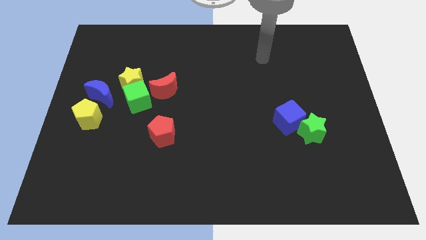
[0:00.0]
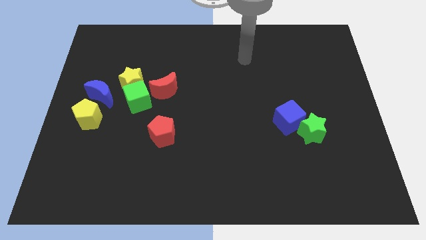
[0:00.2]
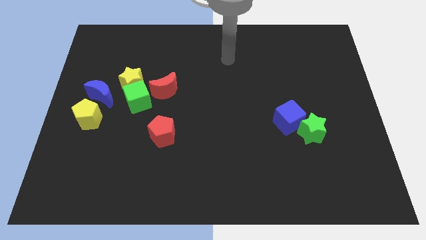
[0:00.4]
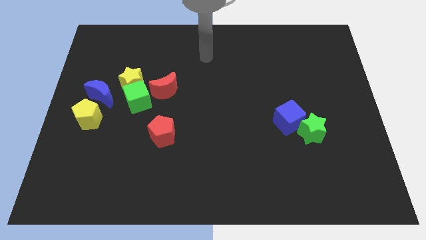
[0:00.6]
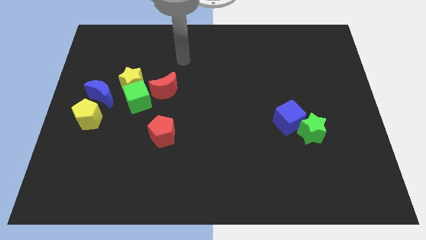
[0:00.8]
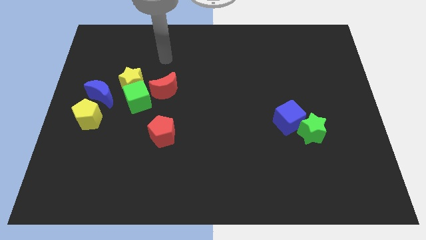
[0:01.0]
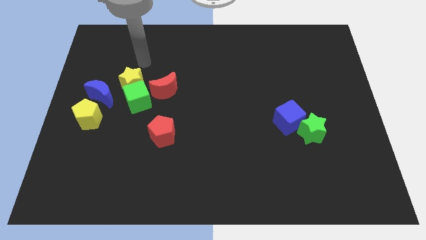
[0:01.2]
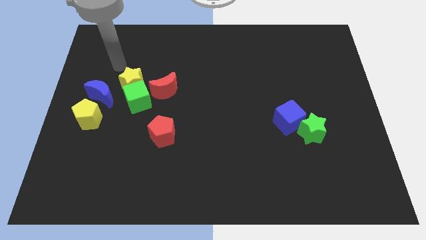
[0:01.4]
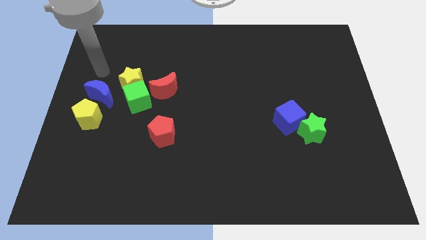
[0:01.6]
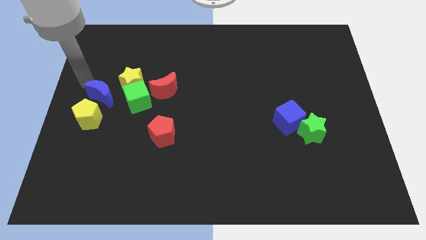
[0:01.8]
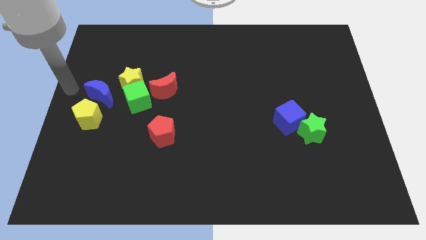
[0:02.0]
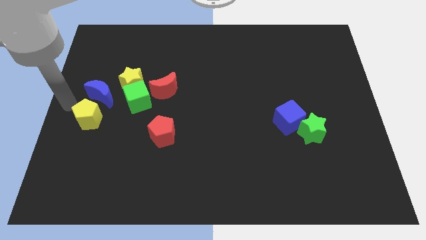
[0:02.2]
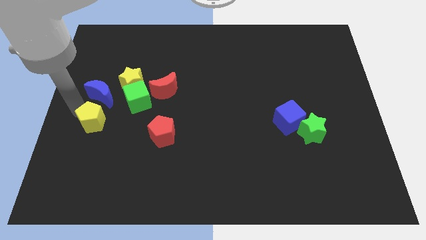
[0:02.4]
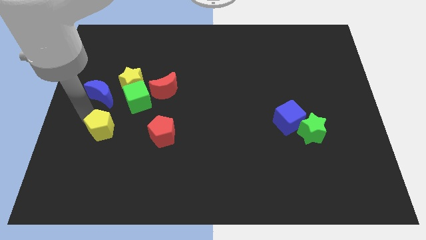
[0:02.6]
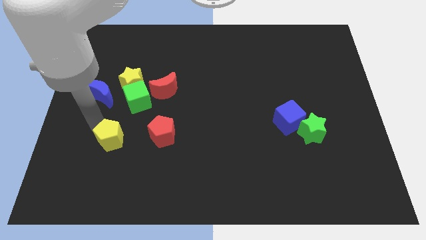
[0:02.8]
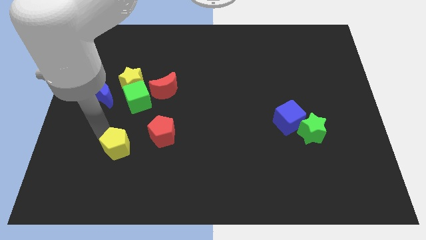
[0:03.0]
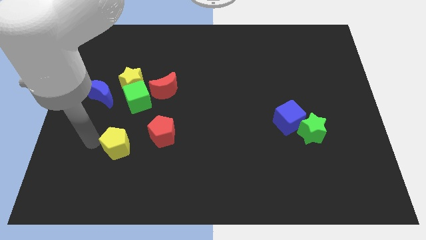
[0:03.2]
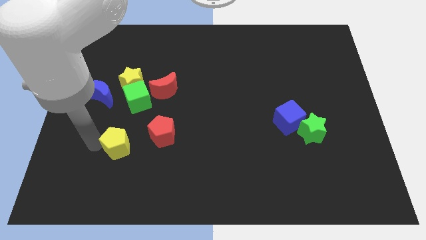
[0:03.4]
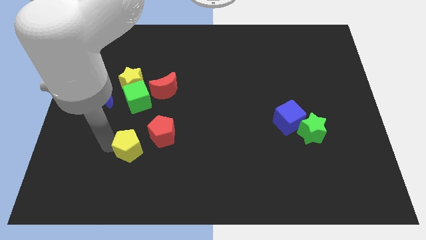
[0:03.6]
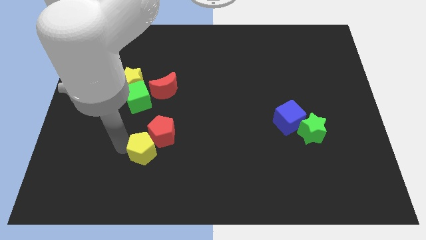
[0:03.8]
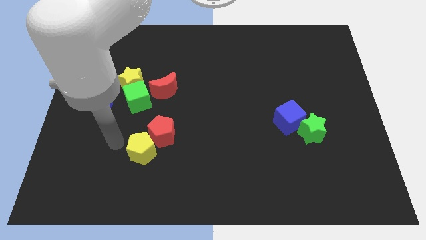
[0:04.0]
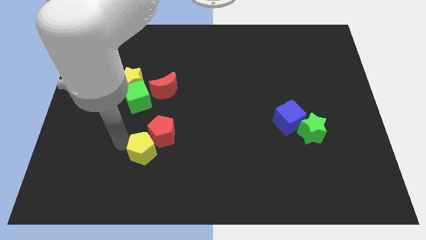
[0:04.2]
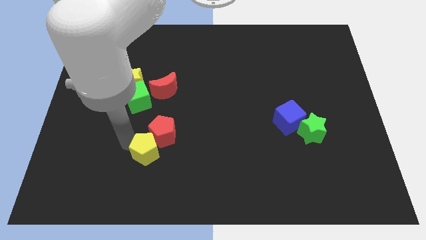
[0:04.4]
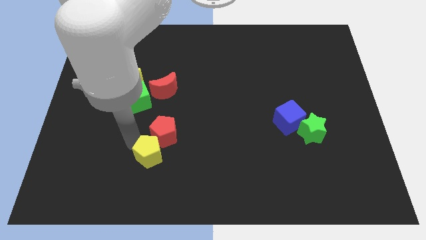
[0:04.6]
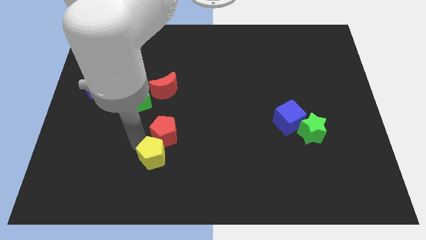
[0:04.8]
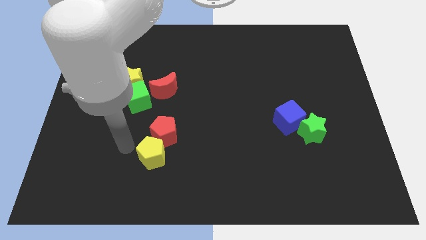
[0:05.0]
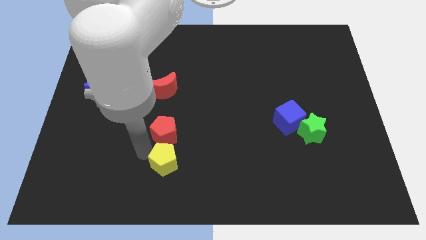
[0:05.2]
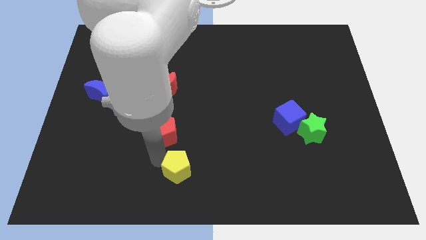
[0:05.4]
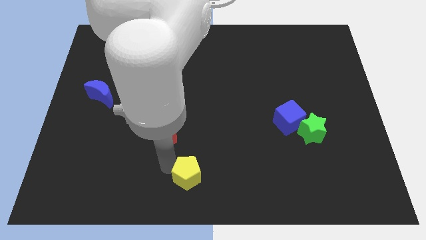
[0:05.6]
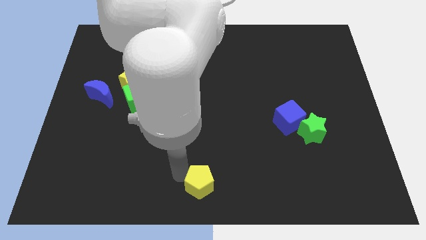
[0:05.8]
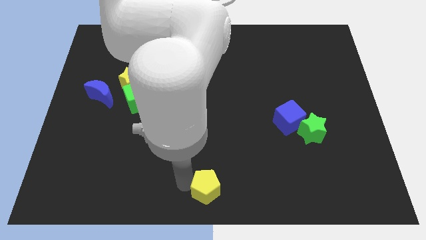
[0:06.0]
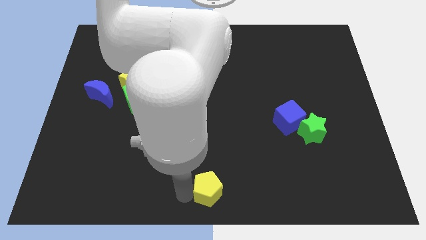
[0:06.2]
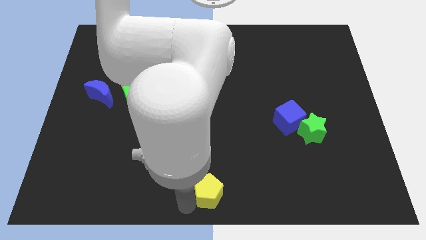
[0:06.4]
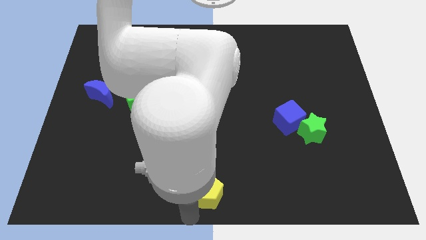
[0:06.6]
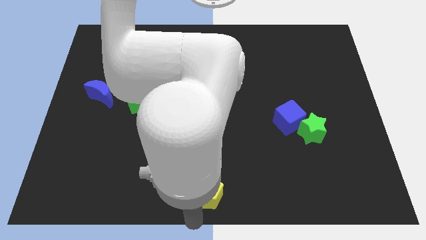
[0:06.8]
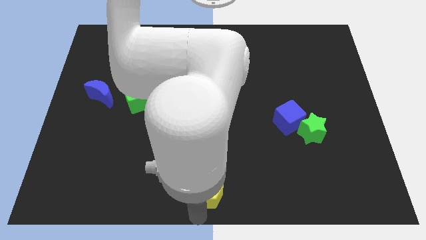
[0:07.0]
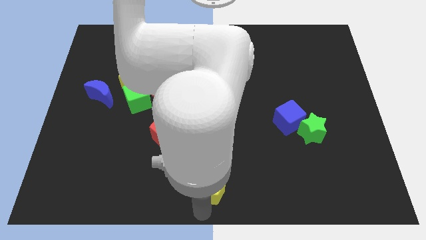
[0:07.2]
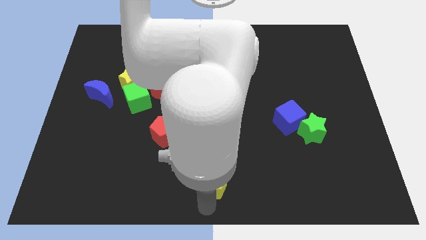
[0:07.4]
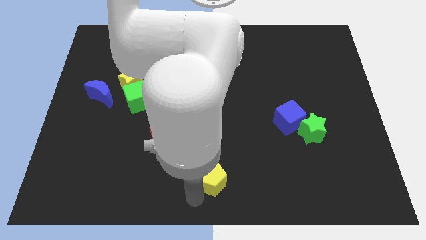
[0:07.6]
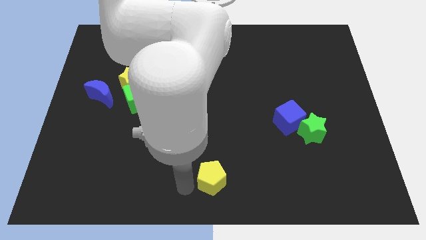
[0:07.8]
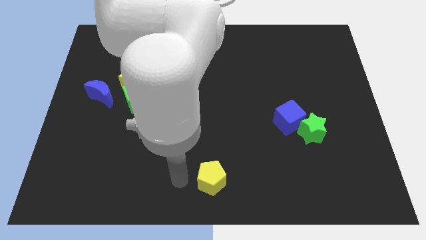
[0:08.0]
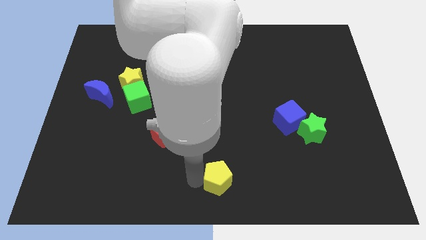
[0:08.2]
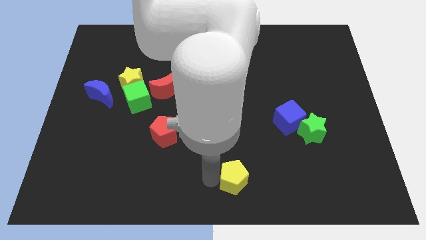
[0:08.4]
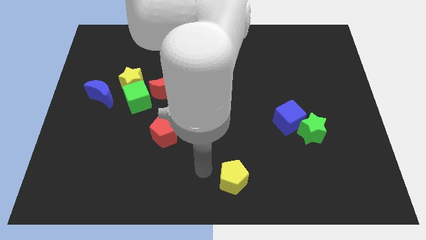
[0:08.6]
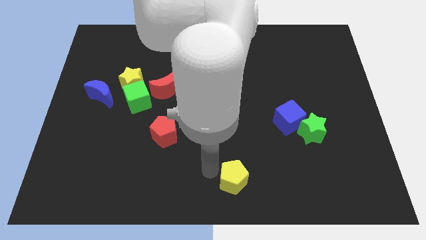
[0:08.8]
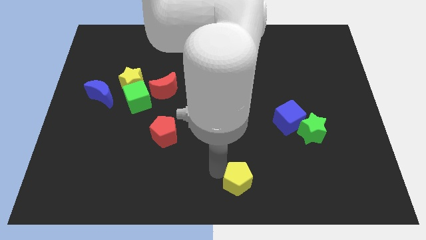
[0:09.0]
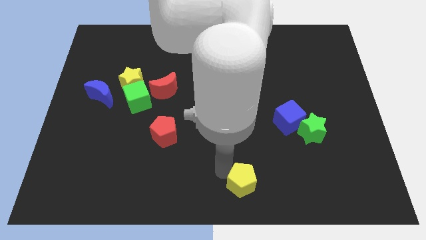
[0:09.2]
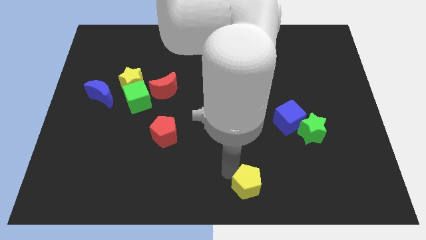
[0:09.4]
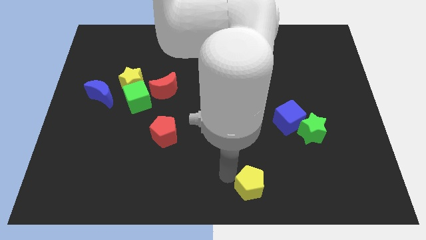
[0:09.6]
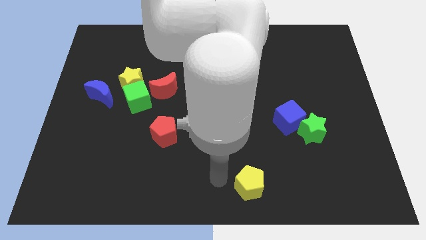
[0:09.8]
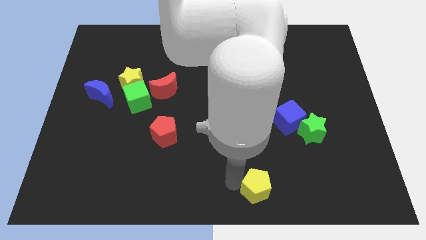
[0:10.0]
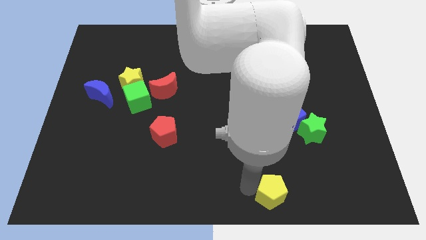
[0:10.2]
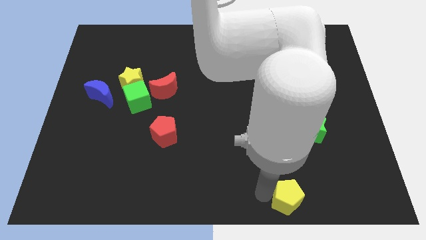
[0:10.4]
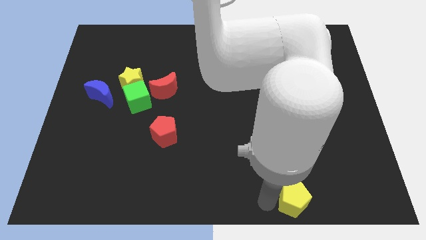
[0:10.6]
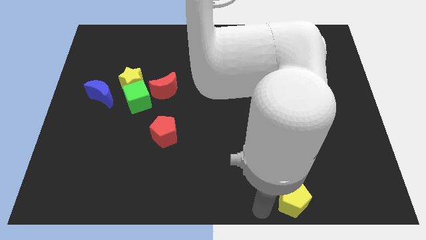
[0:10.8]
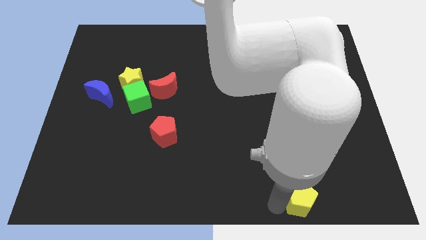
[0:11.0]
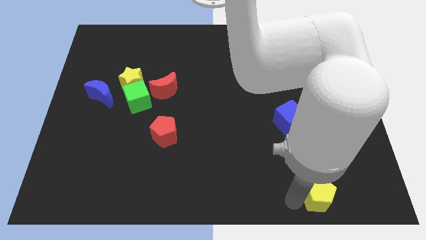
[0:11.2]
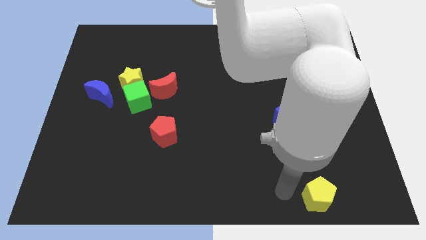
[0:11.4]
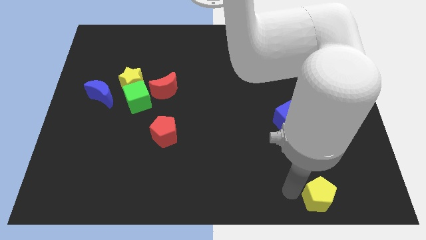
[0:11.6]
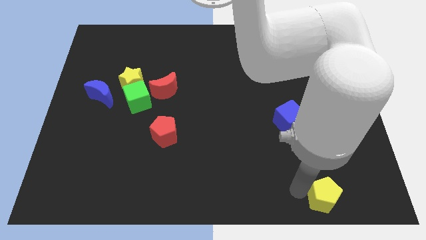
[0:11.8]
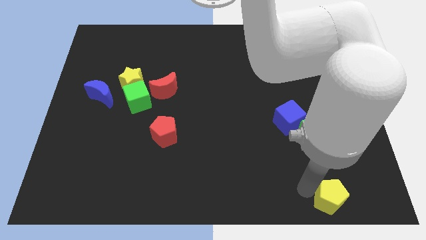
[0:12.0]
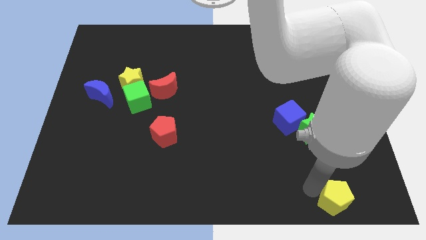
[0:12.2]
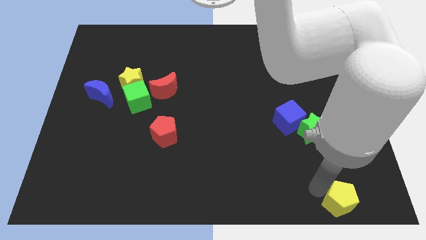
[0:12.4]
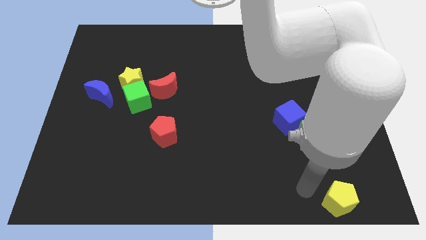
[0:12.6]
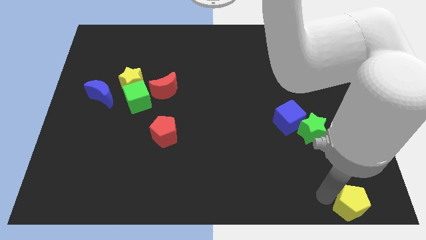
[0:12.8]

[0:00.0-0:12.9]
push the yellow pentagon to the lower right corner

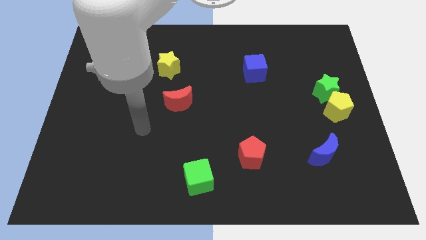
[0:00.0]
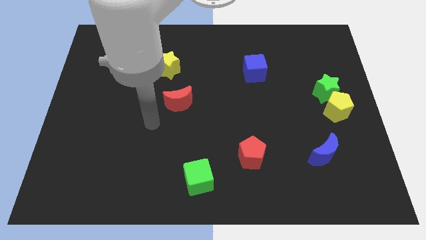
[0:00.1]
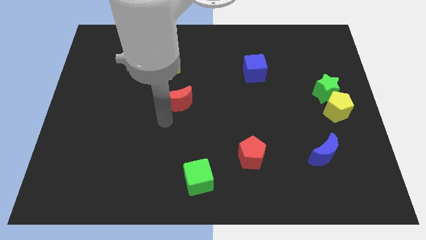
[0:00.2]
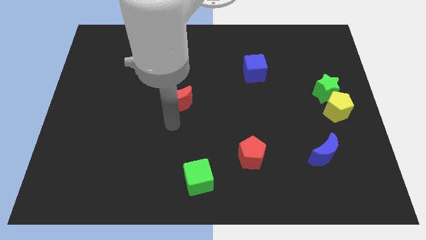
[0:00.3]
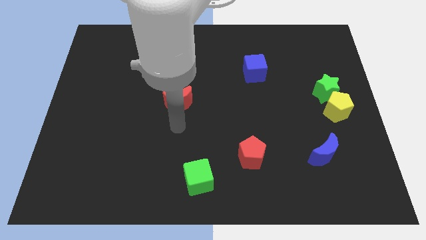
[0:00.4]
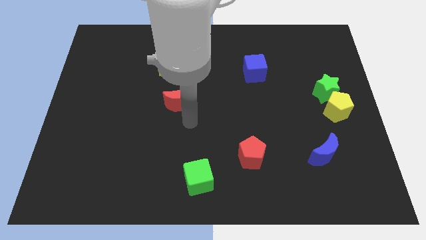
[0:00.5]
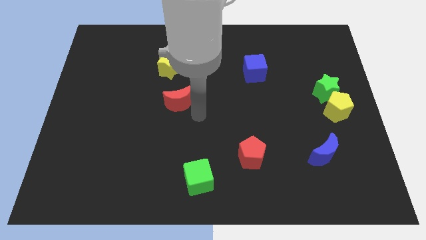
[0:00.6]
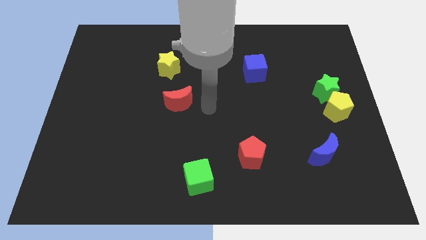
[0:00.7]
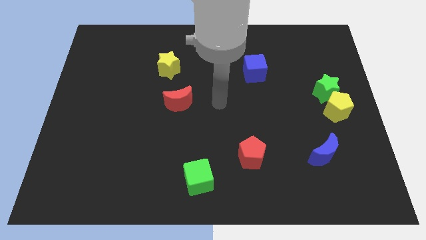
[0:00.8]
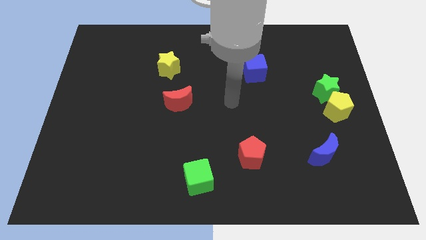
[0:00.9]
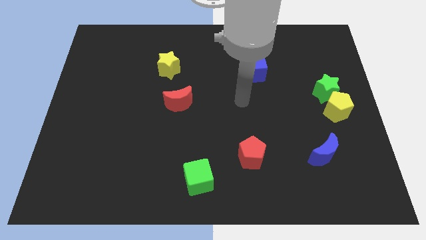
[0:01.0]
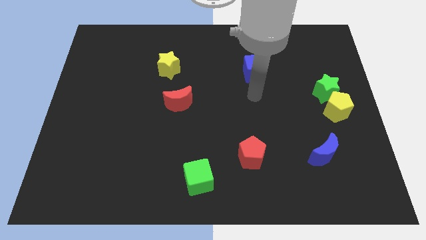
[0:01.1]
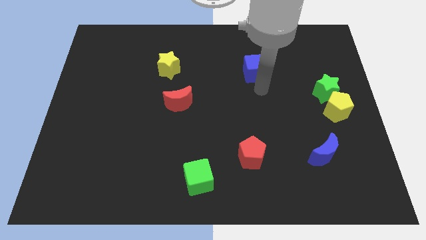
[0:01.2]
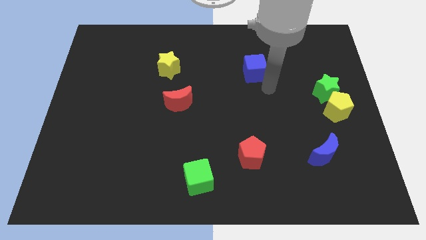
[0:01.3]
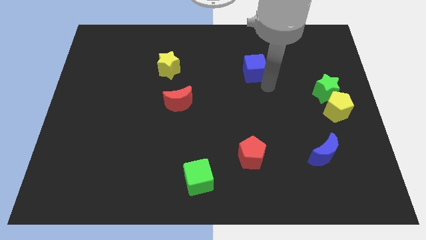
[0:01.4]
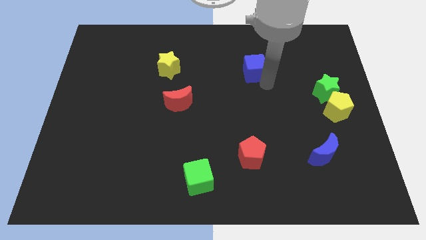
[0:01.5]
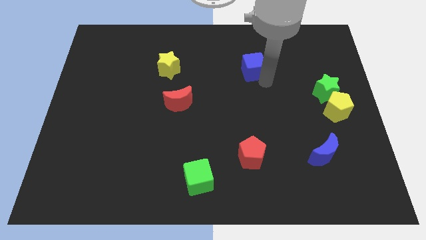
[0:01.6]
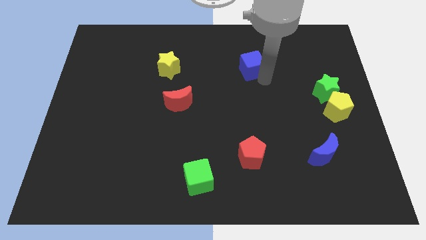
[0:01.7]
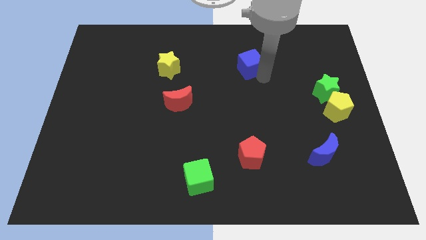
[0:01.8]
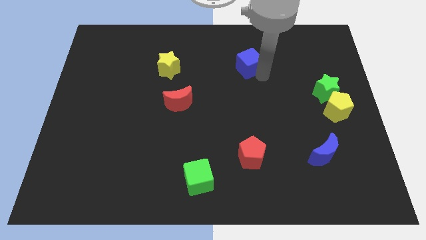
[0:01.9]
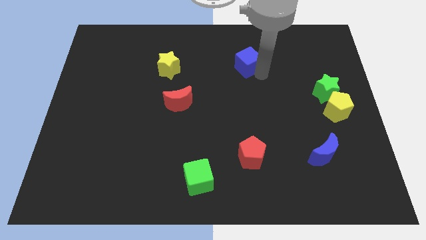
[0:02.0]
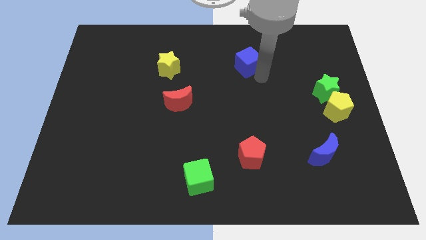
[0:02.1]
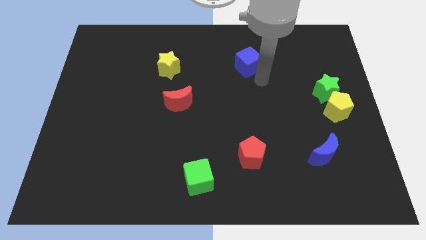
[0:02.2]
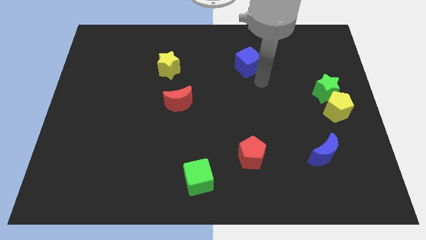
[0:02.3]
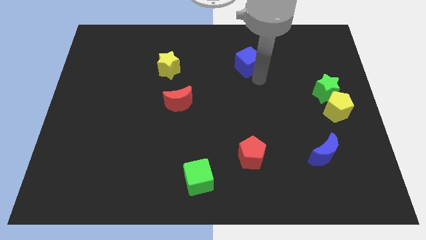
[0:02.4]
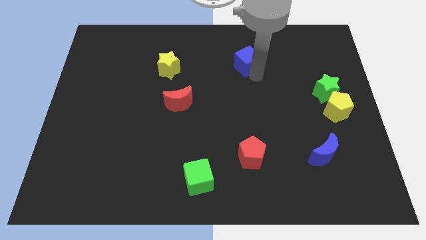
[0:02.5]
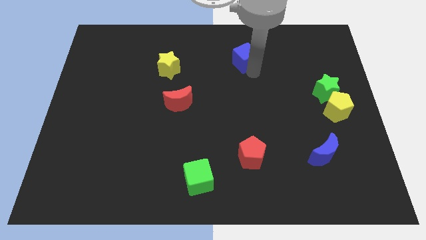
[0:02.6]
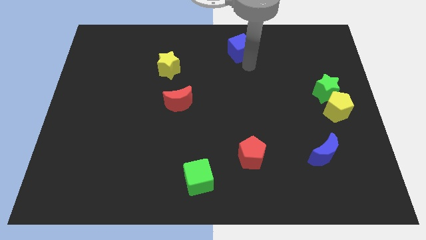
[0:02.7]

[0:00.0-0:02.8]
put the blue cube to the top
